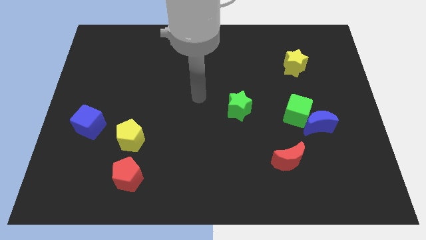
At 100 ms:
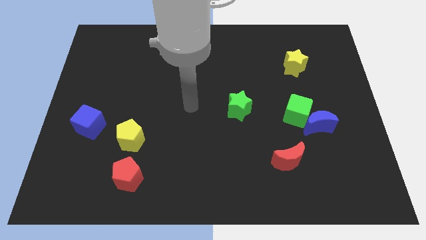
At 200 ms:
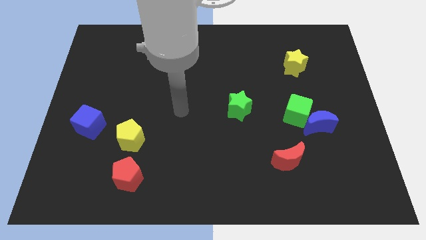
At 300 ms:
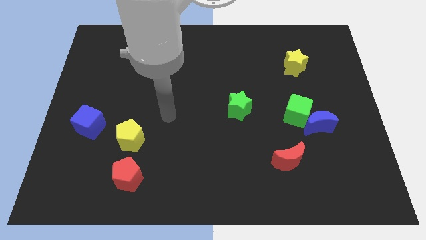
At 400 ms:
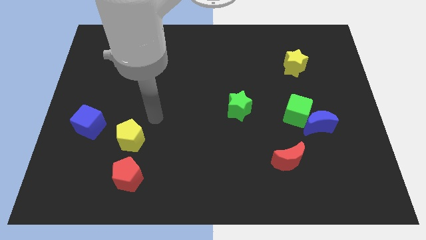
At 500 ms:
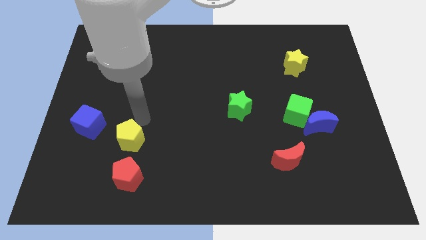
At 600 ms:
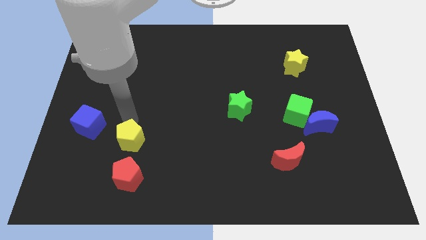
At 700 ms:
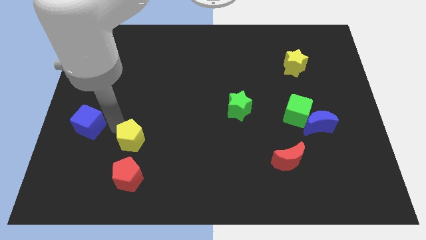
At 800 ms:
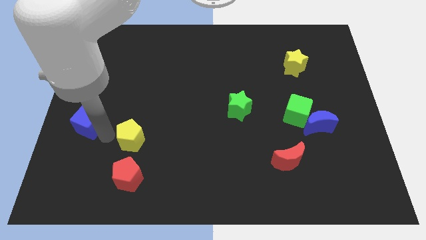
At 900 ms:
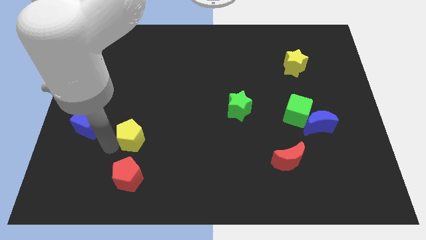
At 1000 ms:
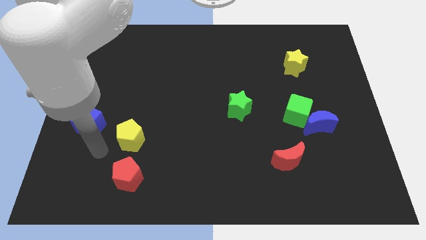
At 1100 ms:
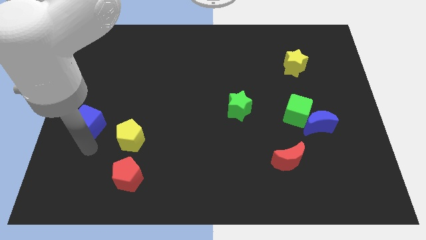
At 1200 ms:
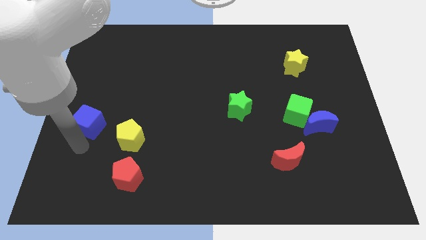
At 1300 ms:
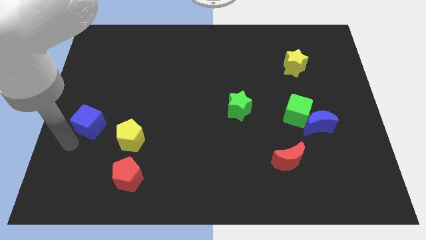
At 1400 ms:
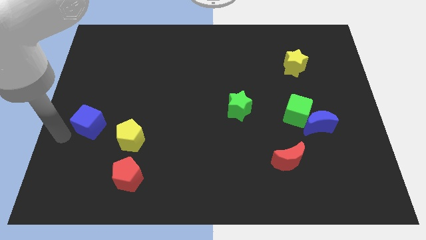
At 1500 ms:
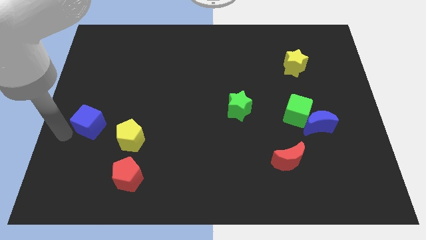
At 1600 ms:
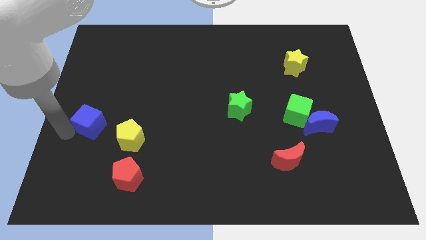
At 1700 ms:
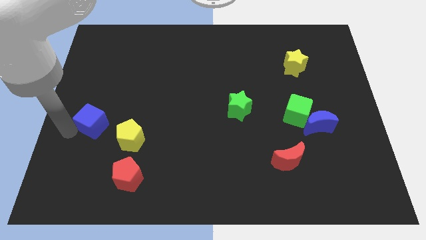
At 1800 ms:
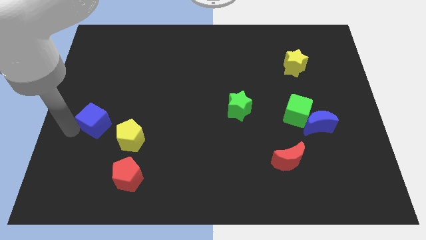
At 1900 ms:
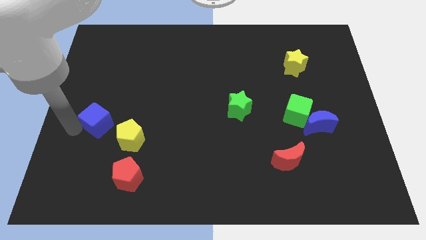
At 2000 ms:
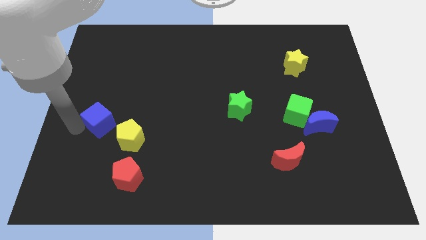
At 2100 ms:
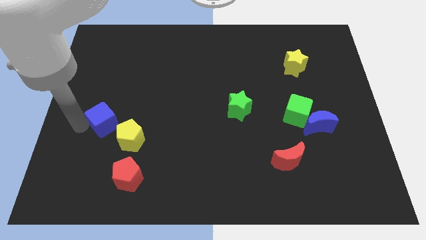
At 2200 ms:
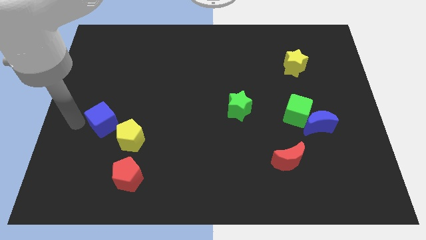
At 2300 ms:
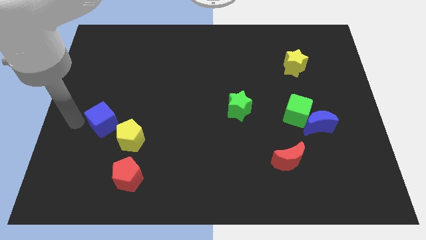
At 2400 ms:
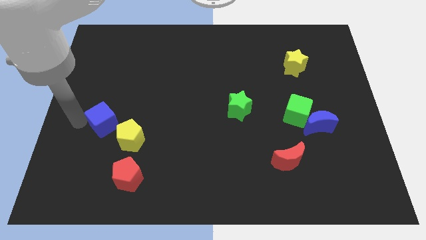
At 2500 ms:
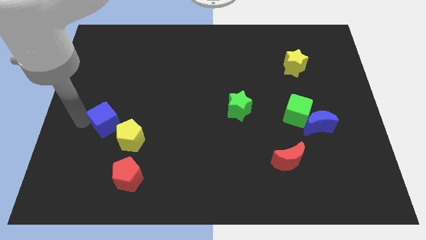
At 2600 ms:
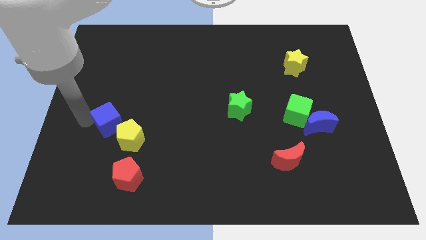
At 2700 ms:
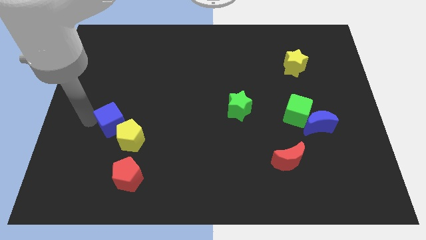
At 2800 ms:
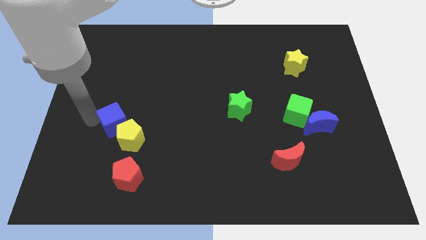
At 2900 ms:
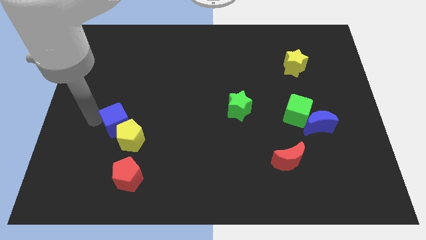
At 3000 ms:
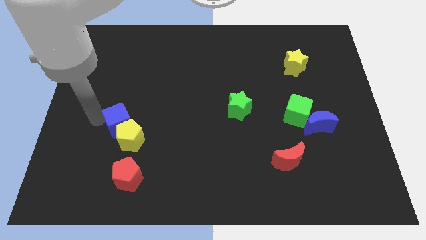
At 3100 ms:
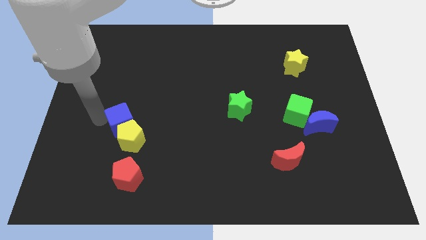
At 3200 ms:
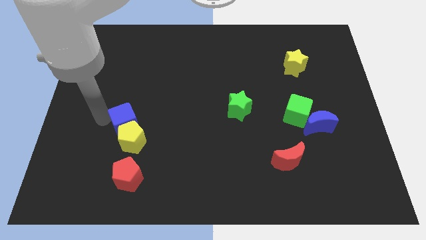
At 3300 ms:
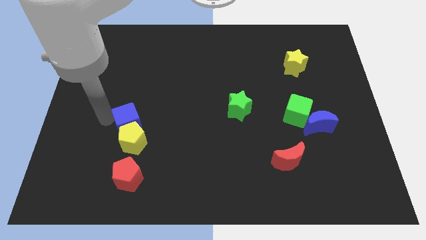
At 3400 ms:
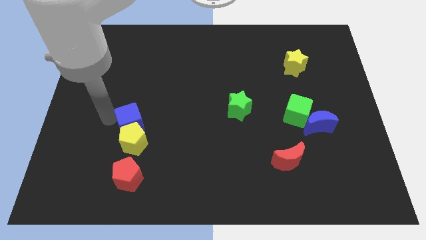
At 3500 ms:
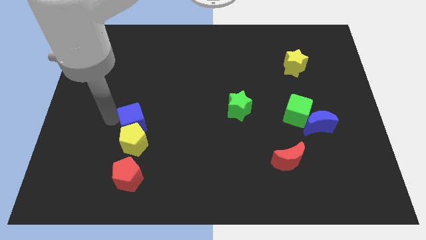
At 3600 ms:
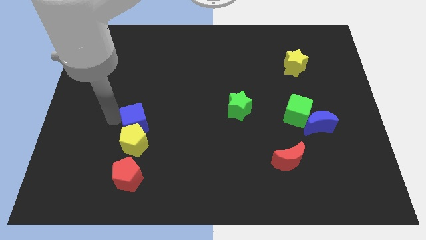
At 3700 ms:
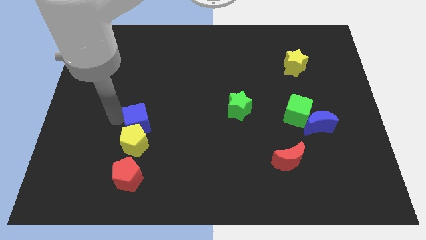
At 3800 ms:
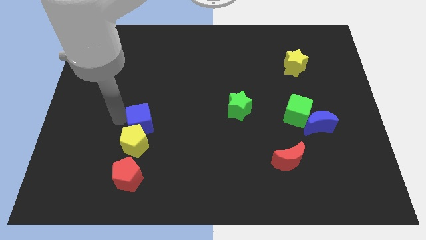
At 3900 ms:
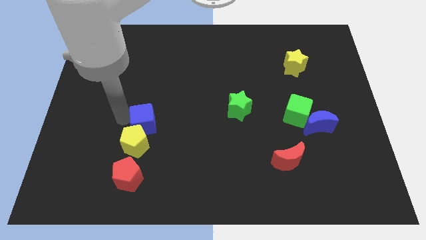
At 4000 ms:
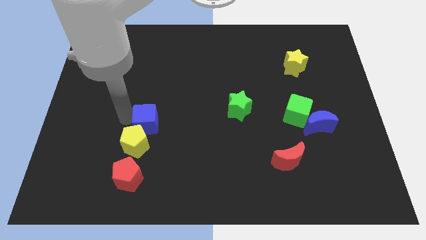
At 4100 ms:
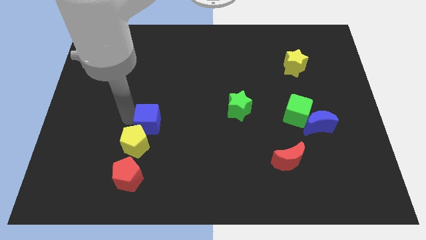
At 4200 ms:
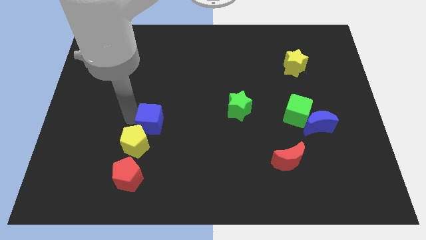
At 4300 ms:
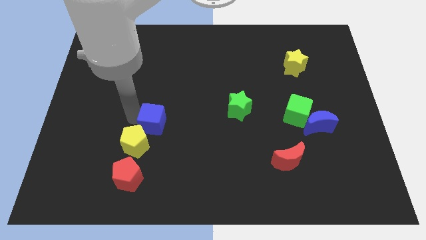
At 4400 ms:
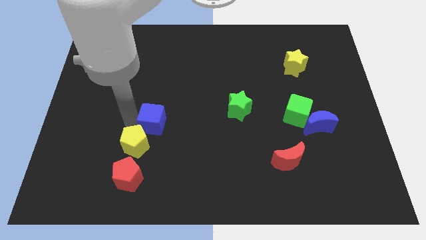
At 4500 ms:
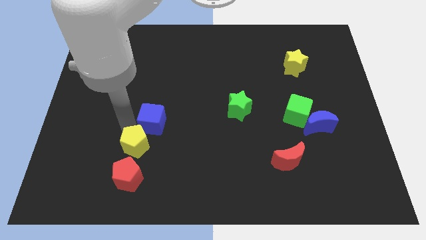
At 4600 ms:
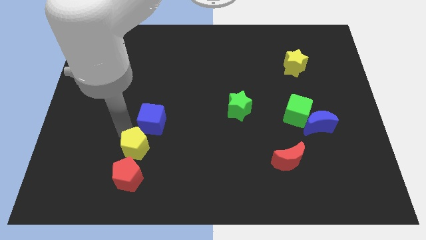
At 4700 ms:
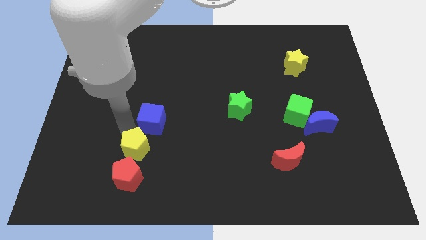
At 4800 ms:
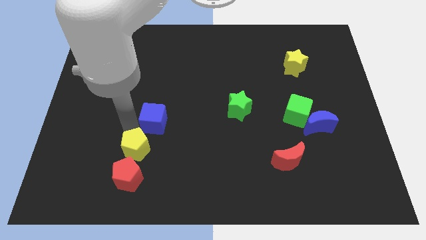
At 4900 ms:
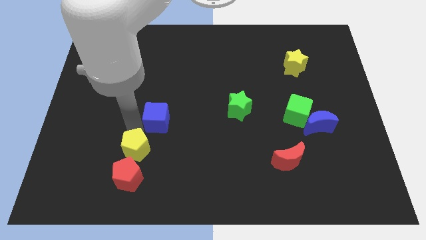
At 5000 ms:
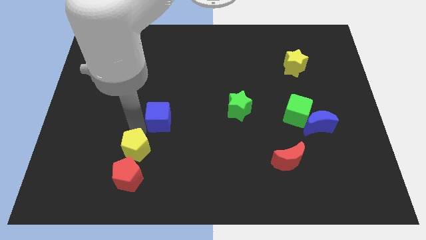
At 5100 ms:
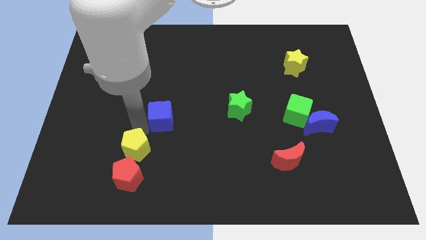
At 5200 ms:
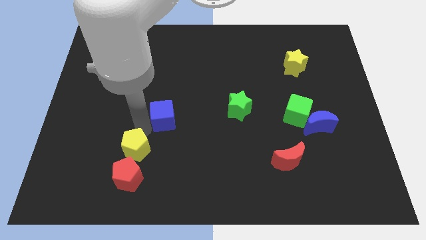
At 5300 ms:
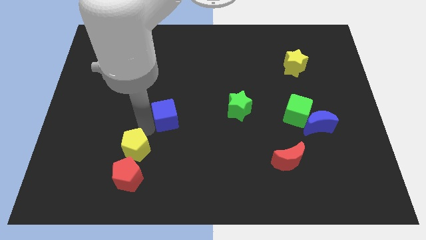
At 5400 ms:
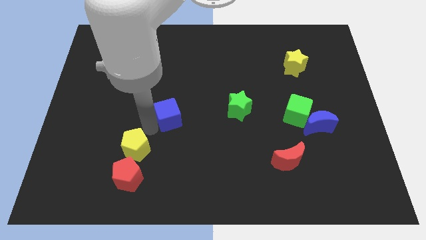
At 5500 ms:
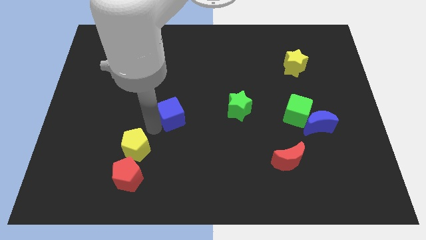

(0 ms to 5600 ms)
move the blue cube left of the green star

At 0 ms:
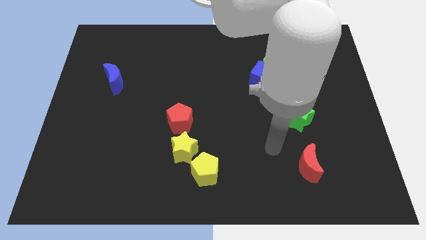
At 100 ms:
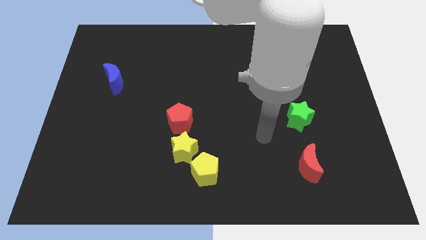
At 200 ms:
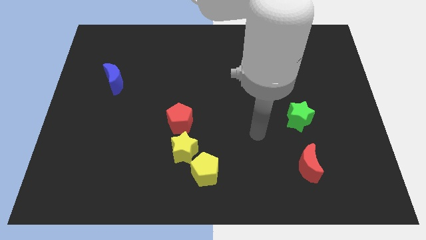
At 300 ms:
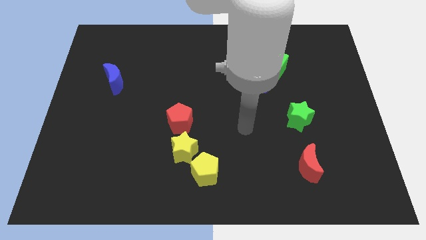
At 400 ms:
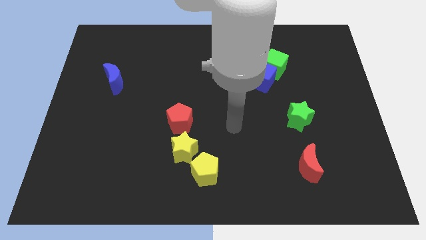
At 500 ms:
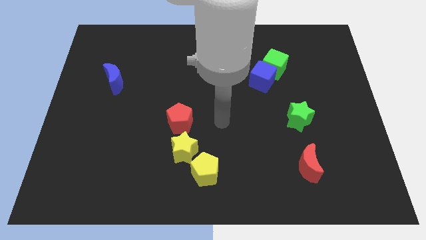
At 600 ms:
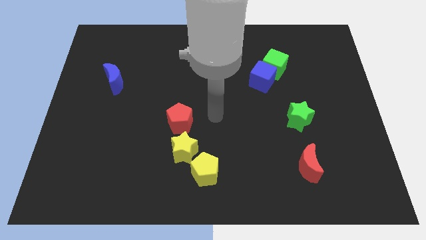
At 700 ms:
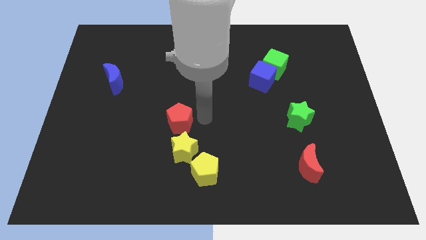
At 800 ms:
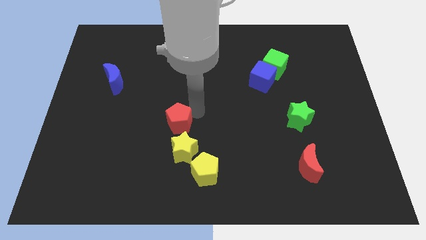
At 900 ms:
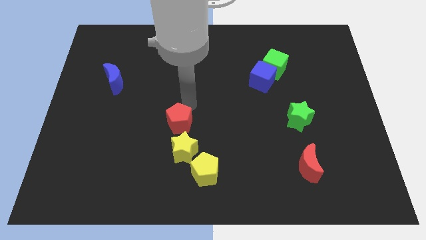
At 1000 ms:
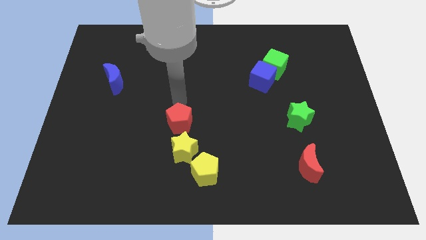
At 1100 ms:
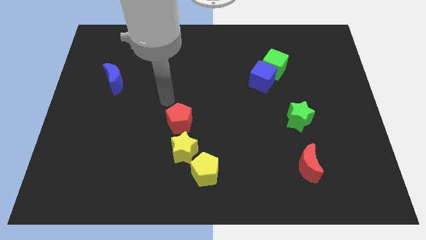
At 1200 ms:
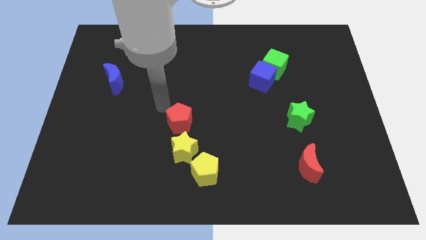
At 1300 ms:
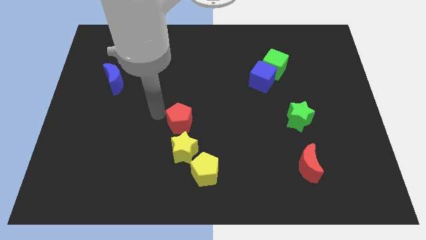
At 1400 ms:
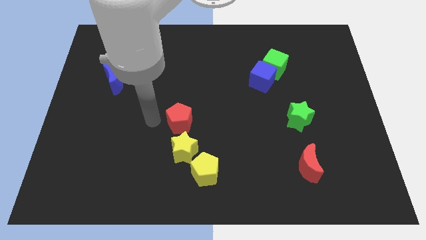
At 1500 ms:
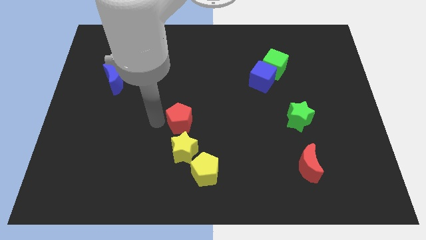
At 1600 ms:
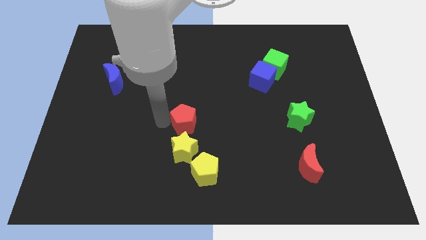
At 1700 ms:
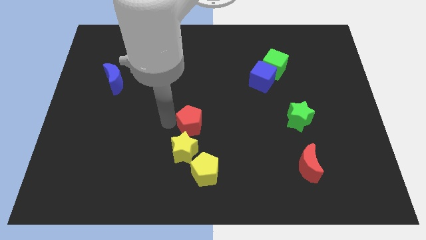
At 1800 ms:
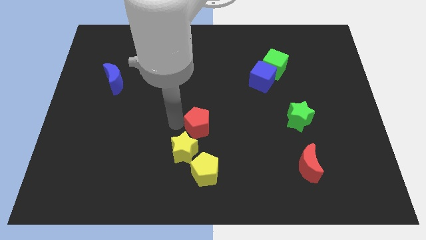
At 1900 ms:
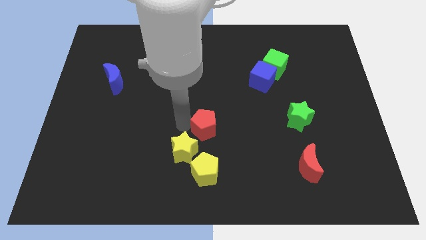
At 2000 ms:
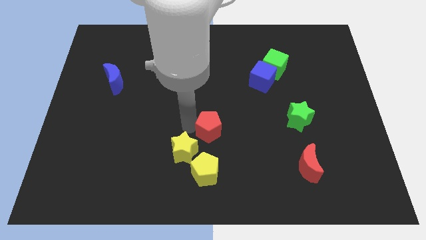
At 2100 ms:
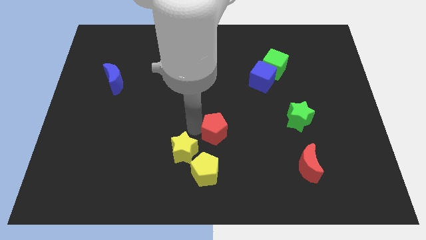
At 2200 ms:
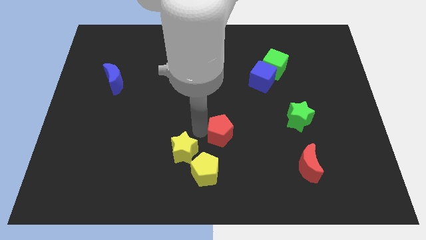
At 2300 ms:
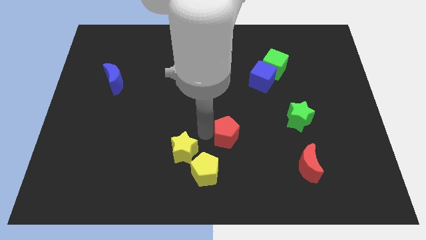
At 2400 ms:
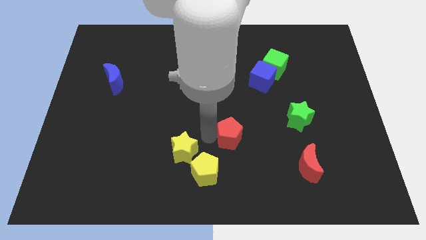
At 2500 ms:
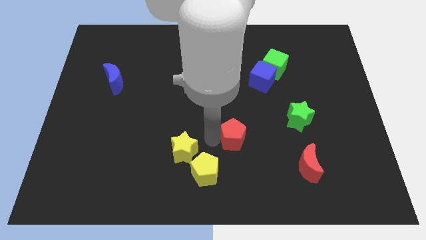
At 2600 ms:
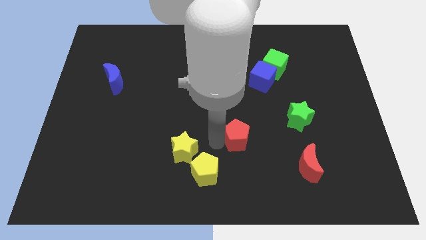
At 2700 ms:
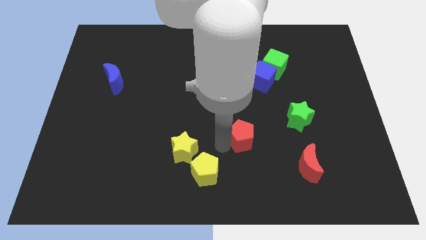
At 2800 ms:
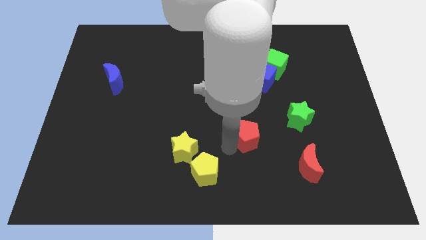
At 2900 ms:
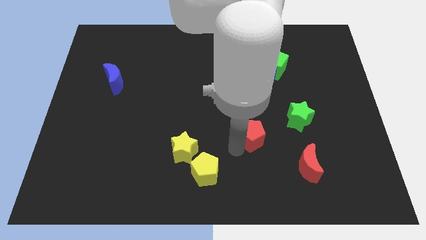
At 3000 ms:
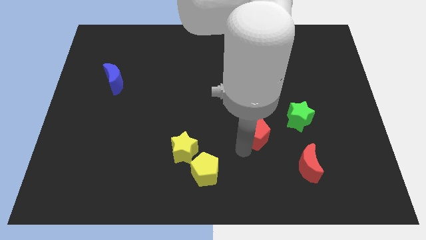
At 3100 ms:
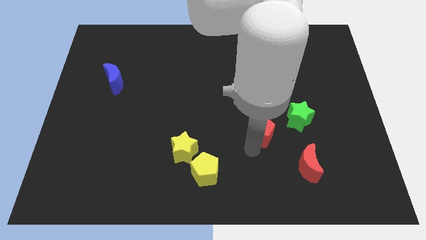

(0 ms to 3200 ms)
move the red pentagon below the blue cube
